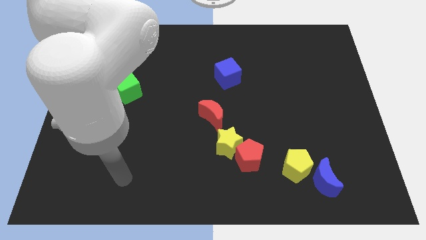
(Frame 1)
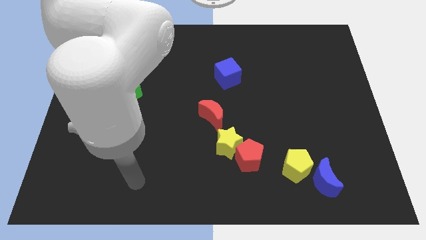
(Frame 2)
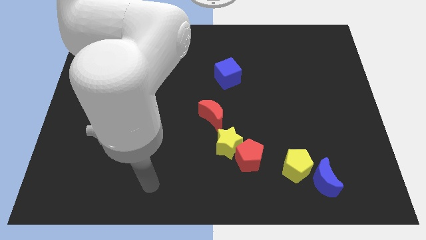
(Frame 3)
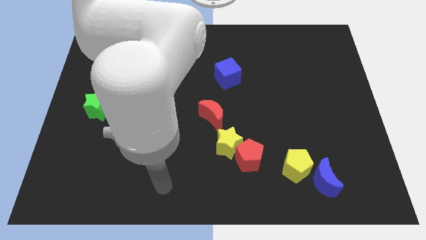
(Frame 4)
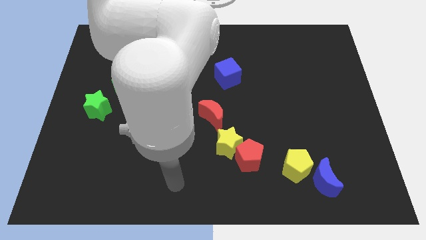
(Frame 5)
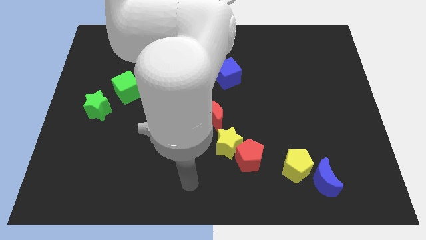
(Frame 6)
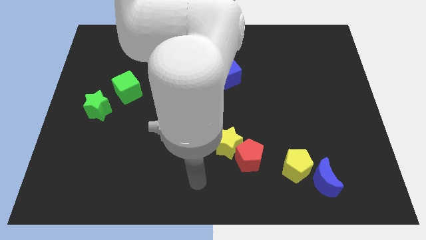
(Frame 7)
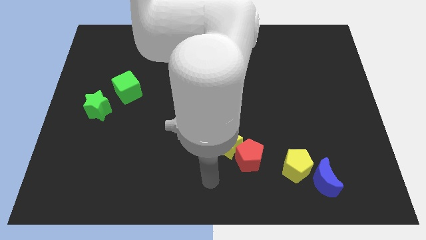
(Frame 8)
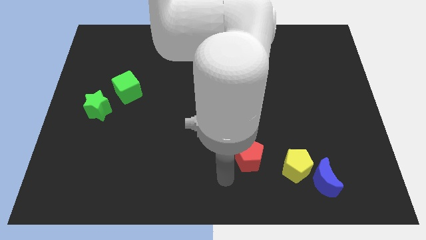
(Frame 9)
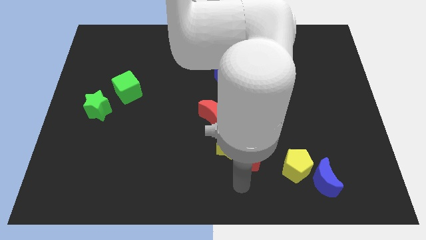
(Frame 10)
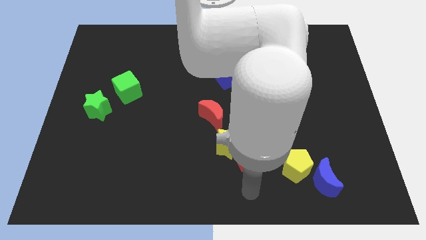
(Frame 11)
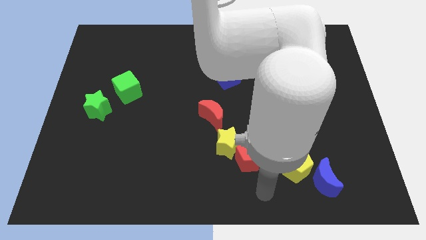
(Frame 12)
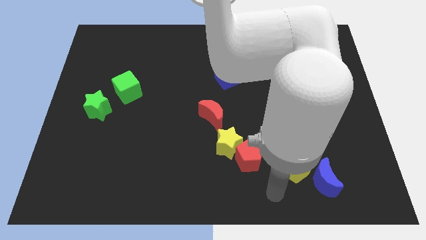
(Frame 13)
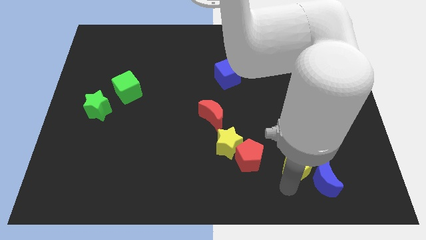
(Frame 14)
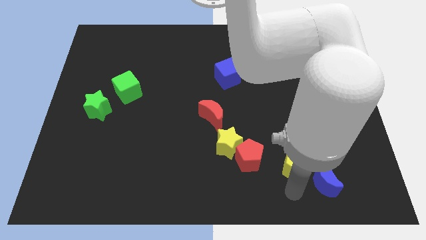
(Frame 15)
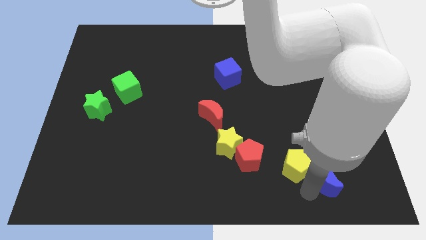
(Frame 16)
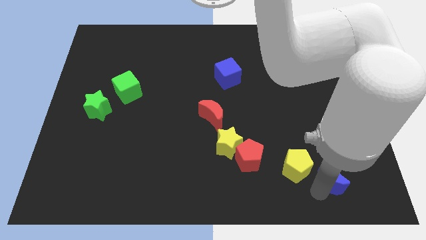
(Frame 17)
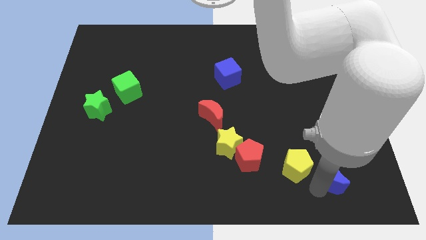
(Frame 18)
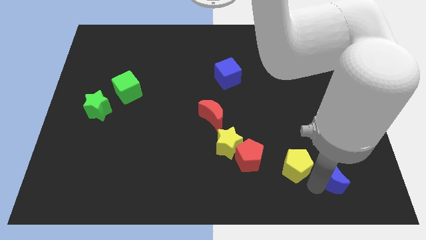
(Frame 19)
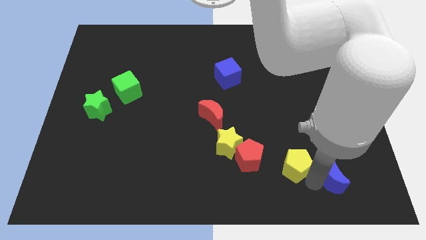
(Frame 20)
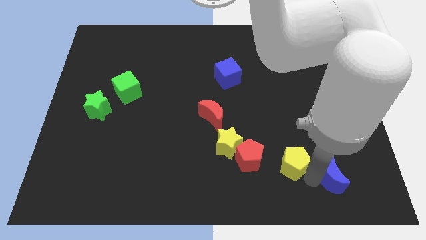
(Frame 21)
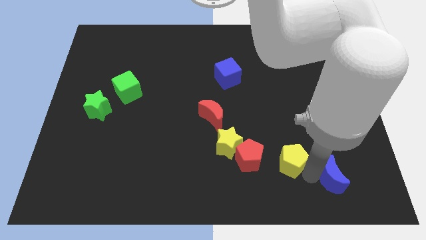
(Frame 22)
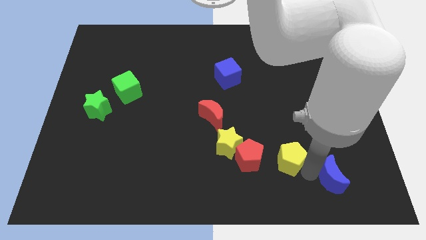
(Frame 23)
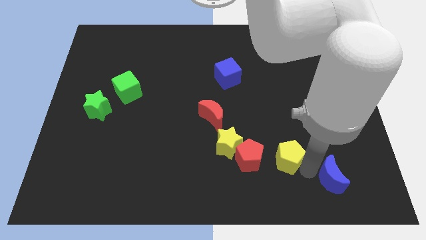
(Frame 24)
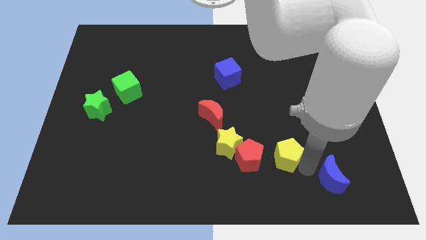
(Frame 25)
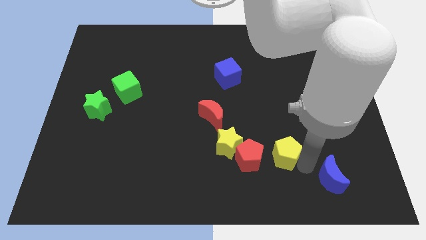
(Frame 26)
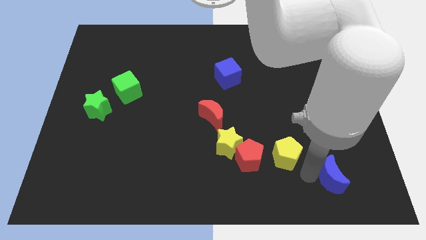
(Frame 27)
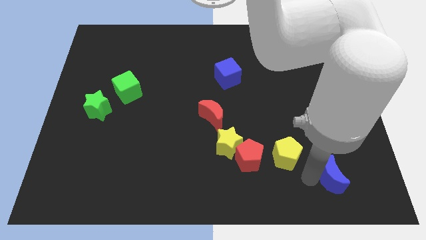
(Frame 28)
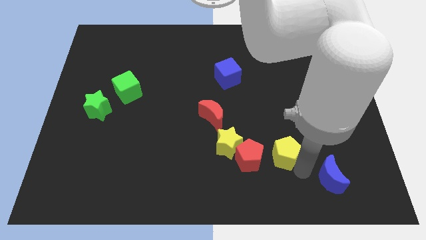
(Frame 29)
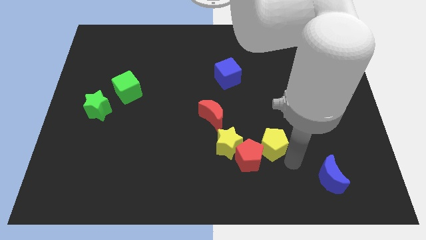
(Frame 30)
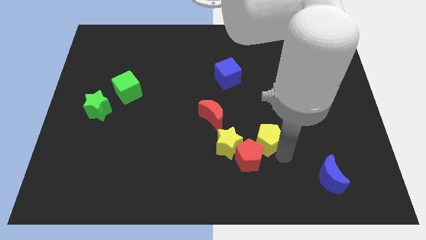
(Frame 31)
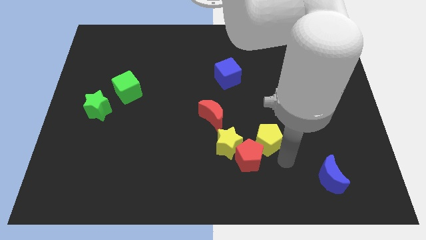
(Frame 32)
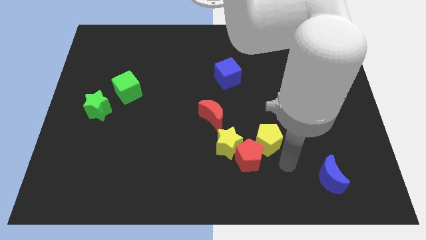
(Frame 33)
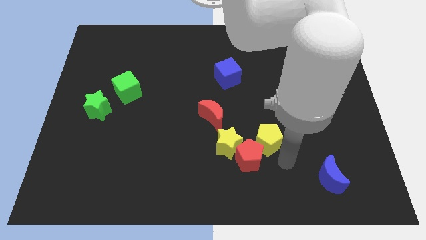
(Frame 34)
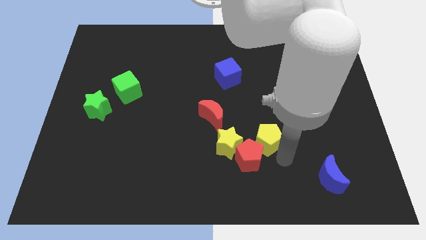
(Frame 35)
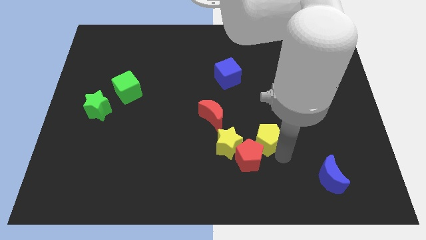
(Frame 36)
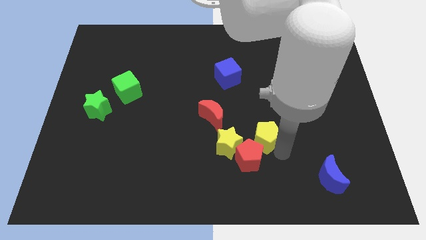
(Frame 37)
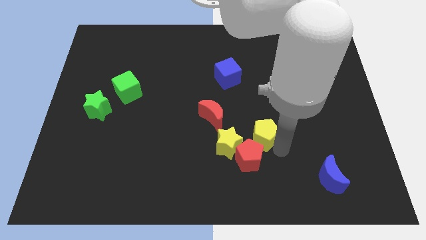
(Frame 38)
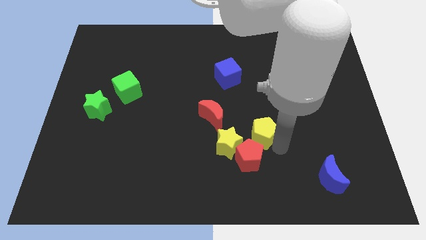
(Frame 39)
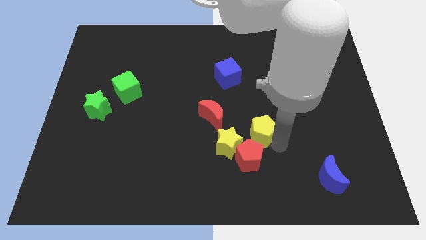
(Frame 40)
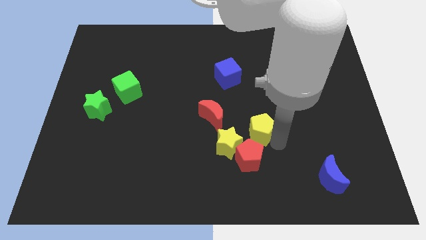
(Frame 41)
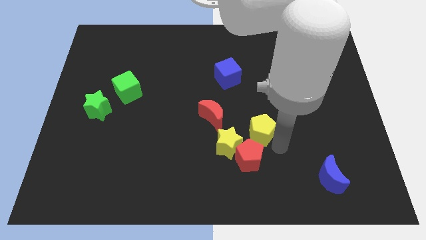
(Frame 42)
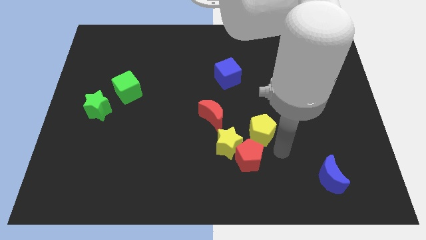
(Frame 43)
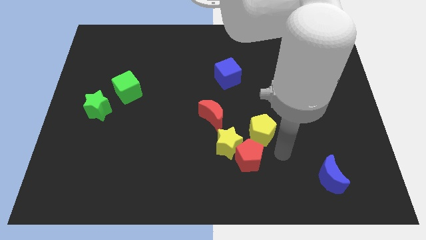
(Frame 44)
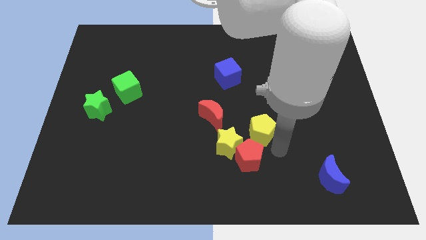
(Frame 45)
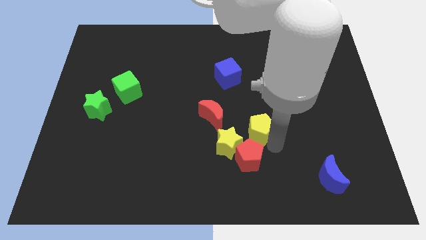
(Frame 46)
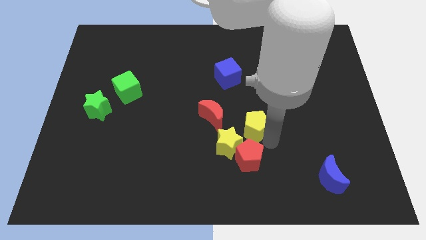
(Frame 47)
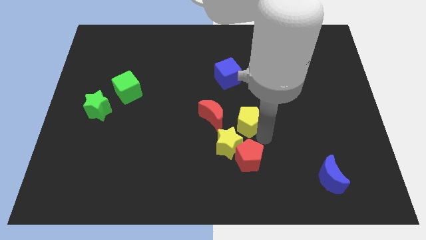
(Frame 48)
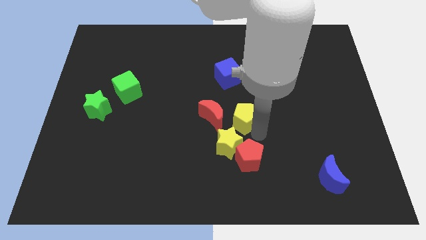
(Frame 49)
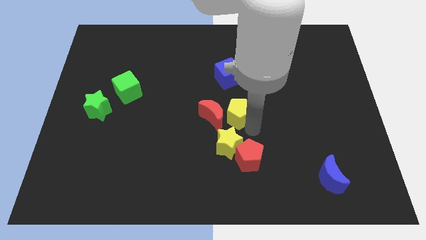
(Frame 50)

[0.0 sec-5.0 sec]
put the yellow pentagon to the top right of the red moon

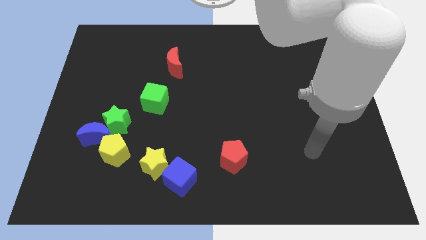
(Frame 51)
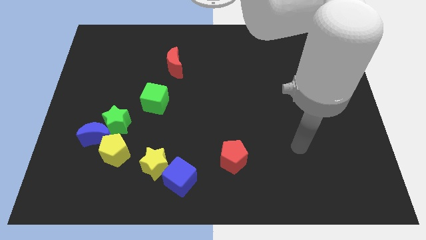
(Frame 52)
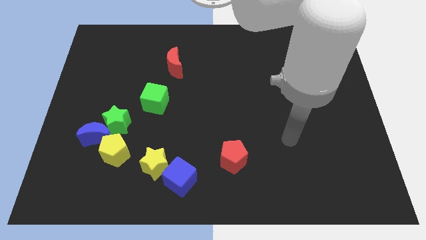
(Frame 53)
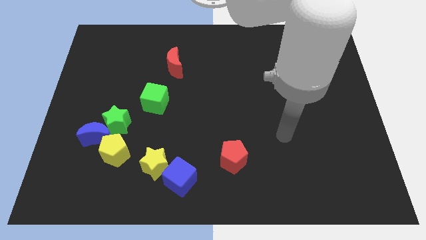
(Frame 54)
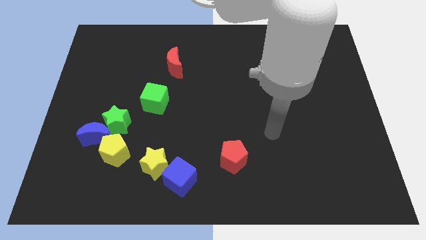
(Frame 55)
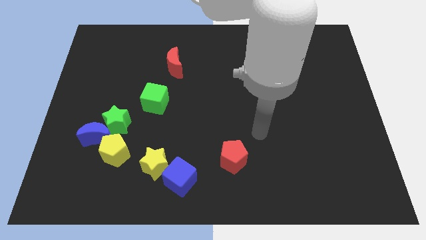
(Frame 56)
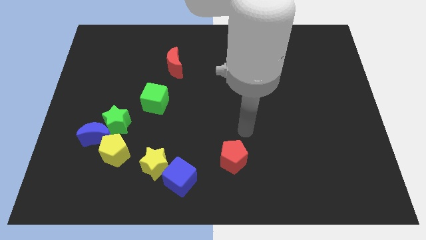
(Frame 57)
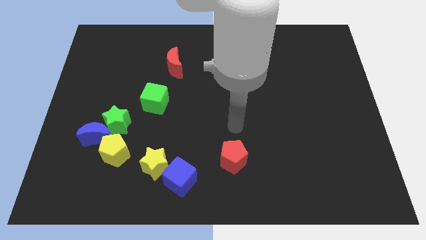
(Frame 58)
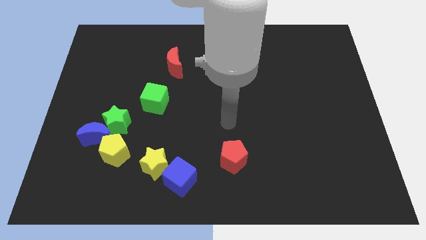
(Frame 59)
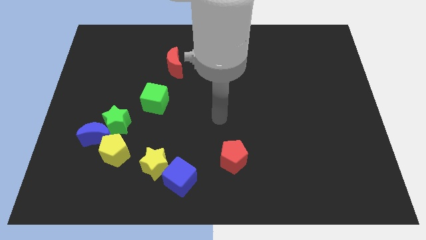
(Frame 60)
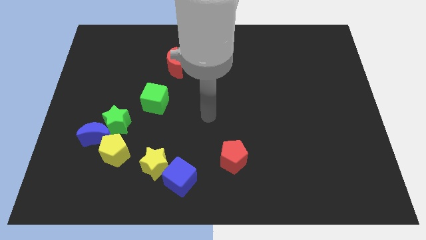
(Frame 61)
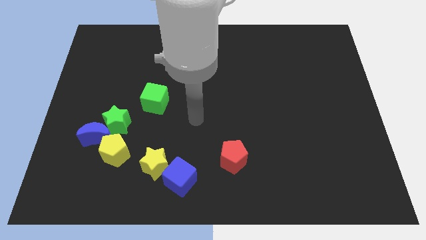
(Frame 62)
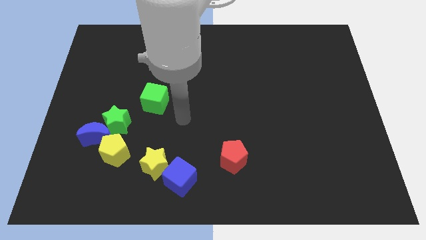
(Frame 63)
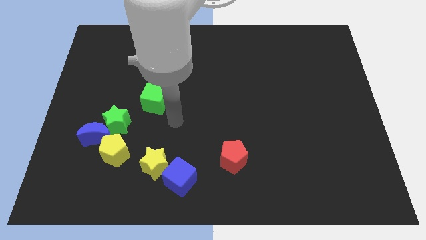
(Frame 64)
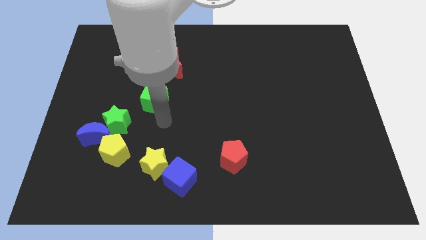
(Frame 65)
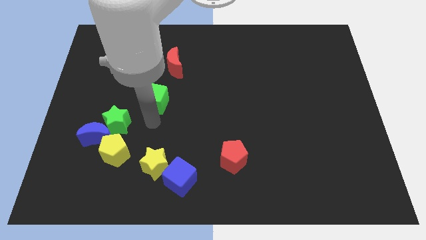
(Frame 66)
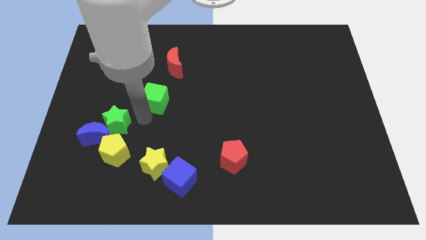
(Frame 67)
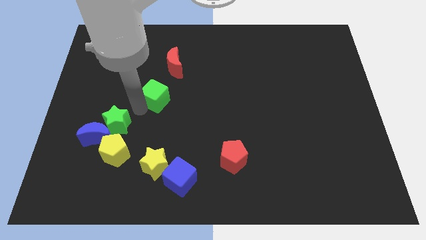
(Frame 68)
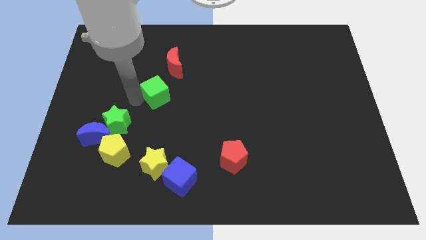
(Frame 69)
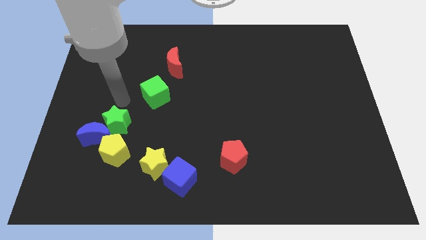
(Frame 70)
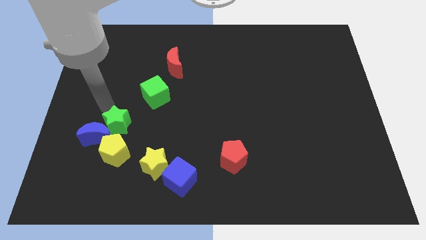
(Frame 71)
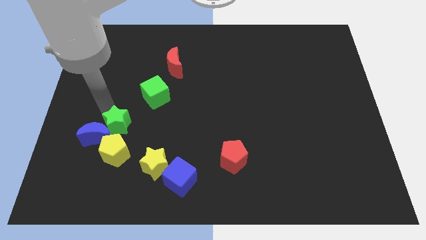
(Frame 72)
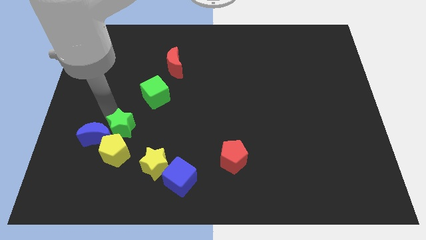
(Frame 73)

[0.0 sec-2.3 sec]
slide the green star diagonally up and to the left of the yellow star
